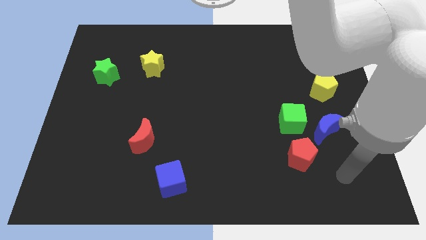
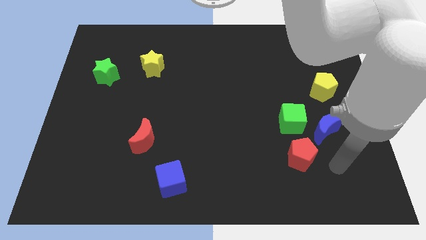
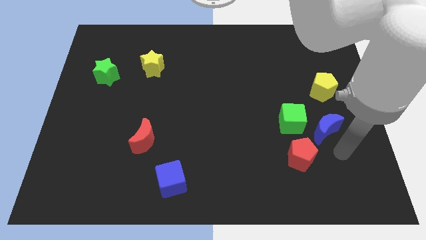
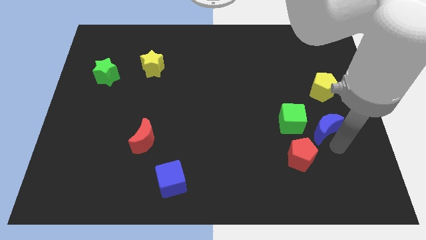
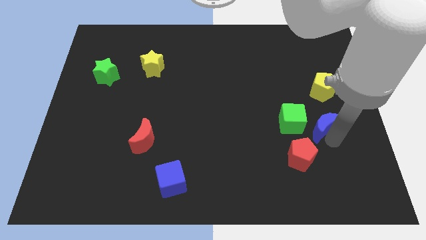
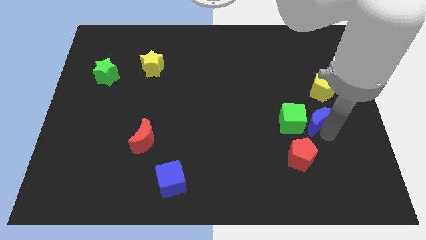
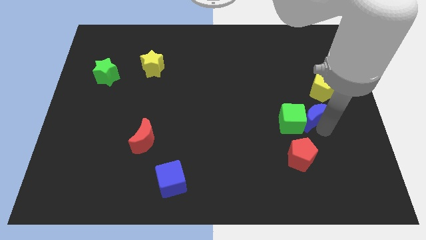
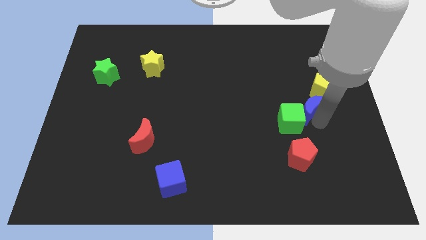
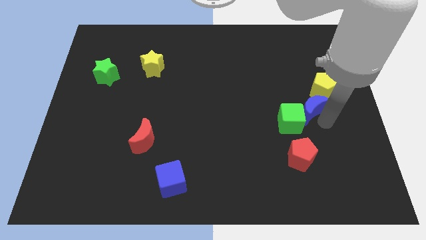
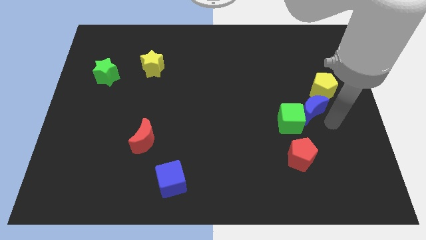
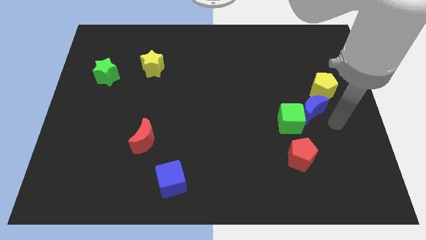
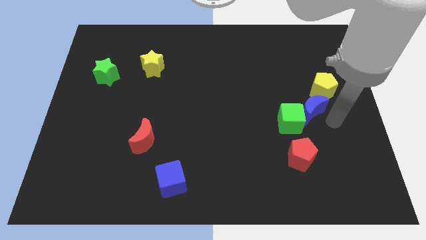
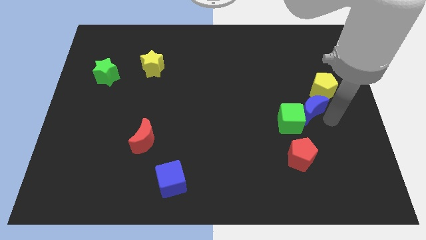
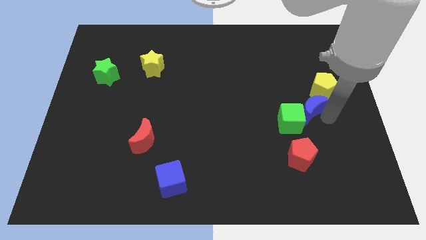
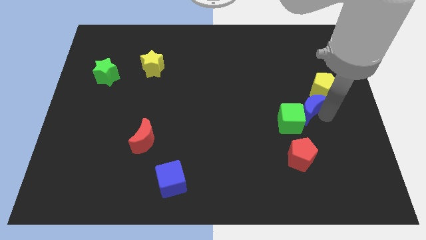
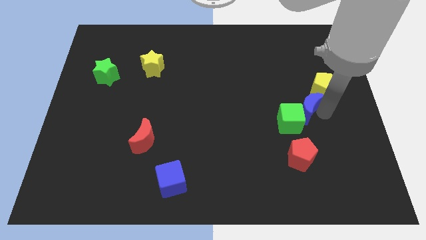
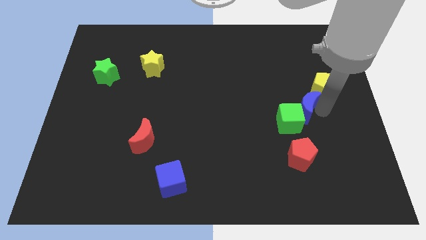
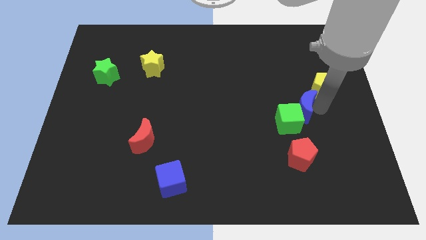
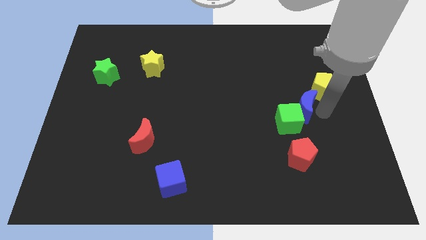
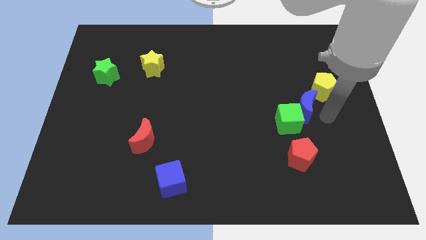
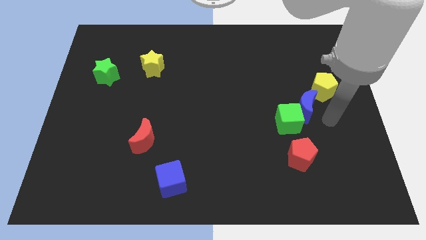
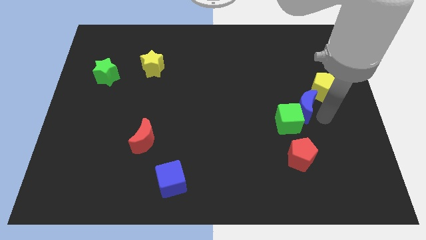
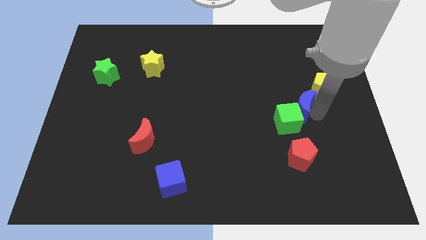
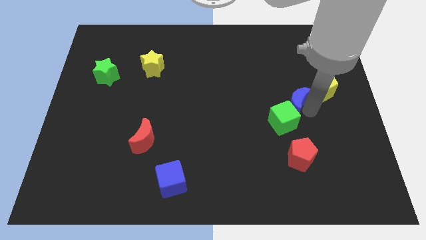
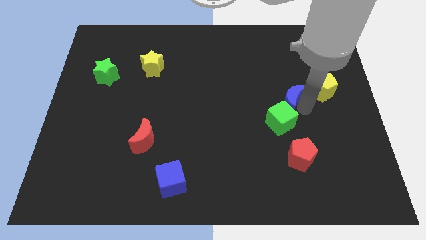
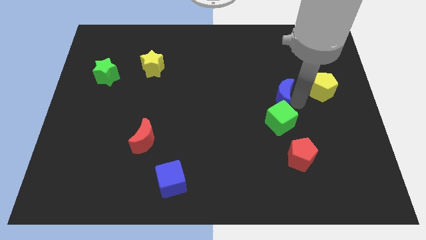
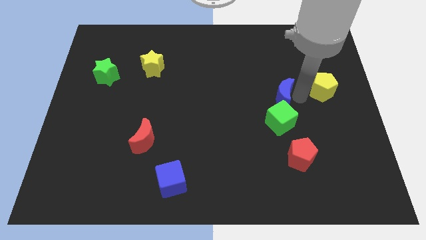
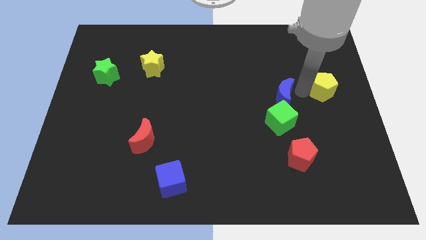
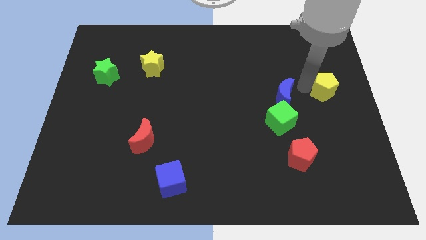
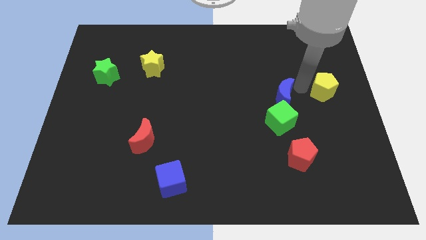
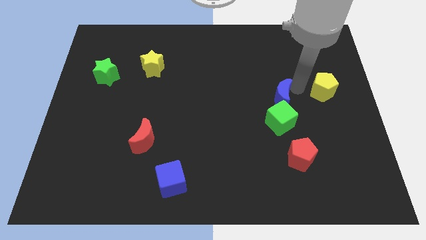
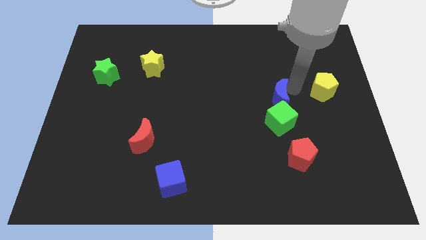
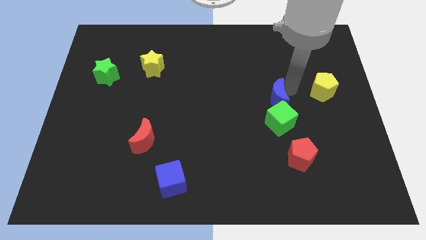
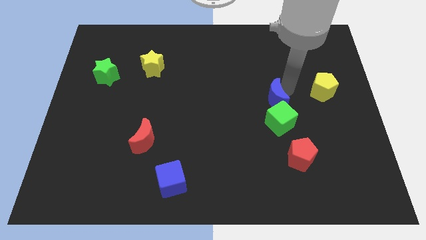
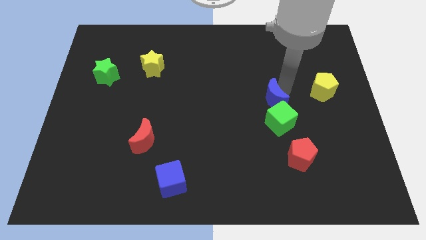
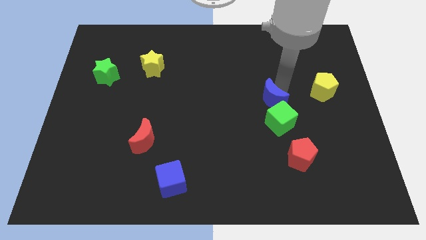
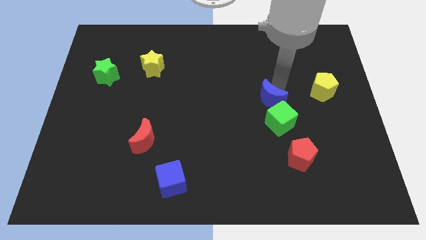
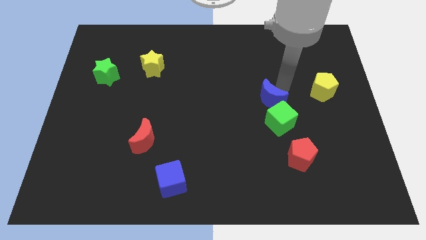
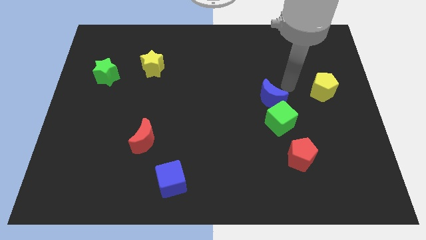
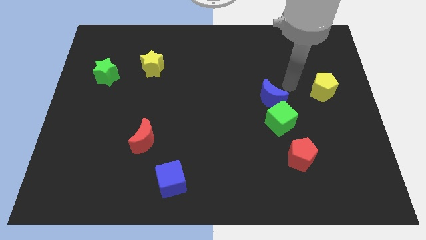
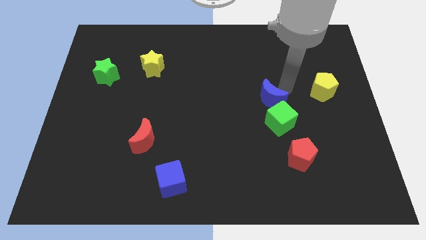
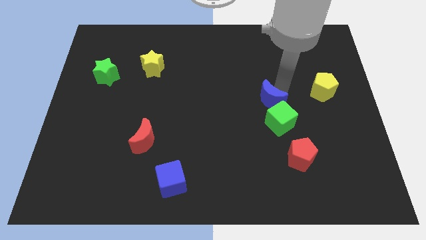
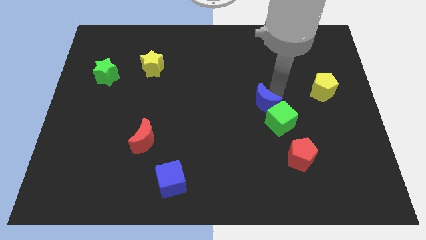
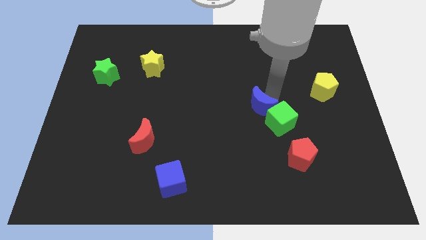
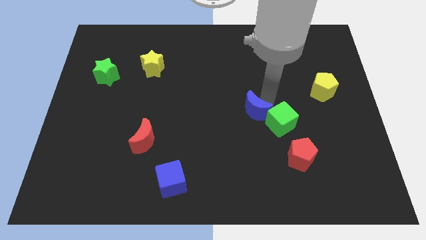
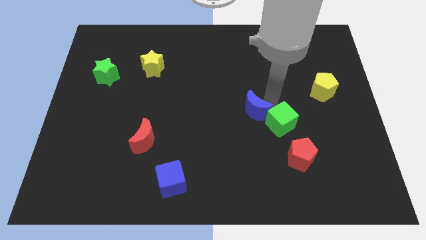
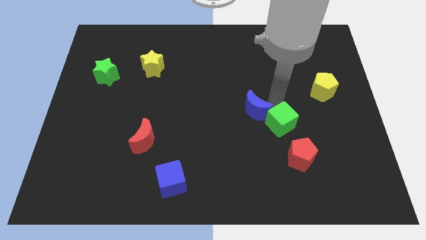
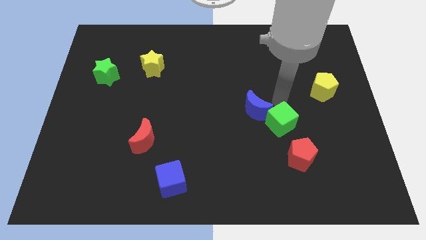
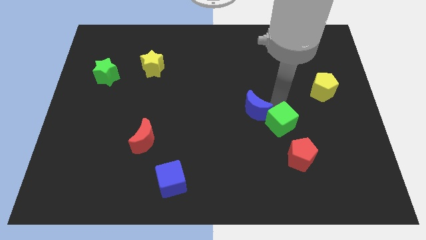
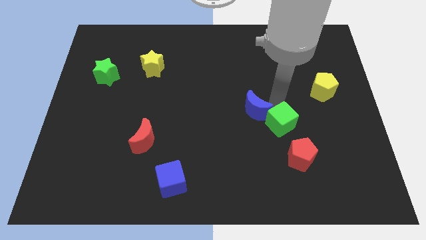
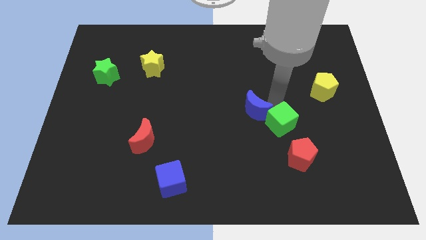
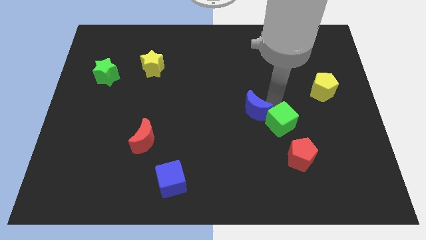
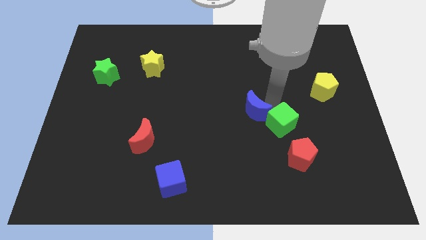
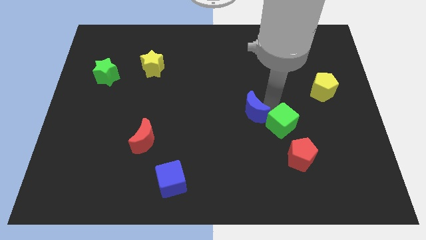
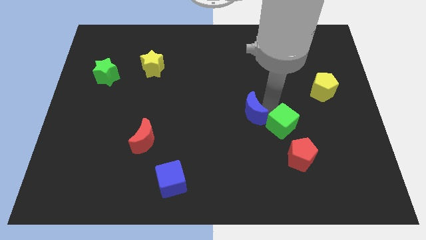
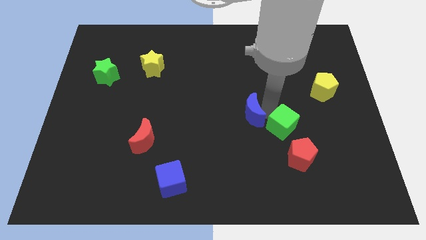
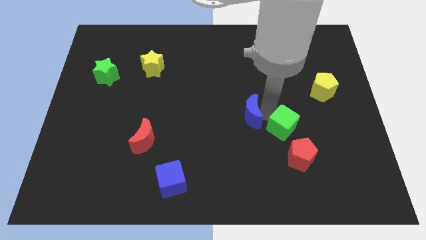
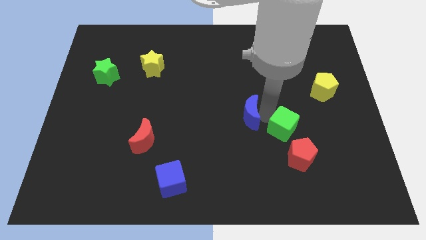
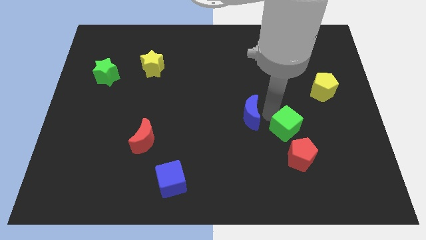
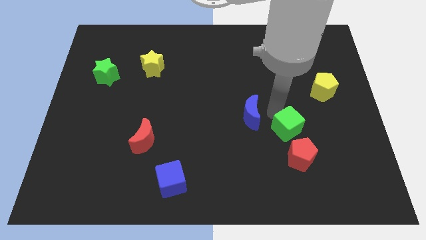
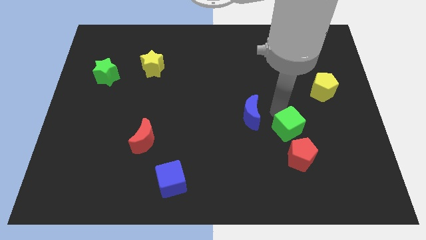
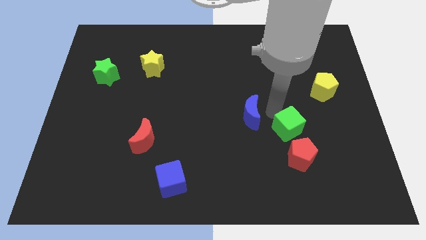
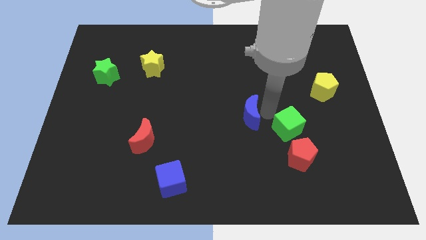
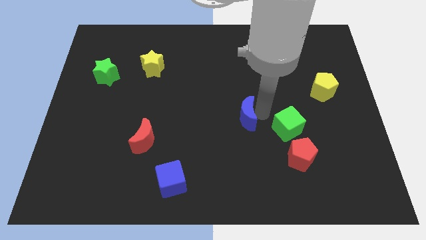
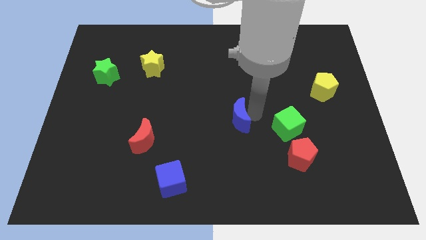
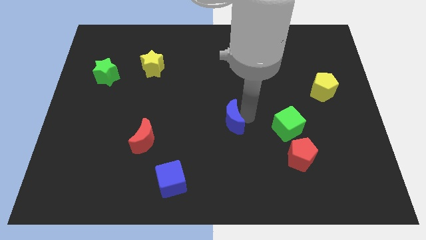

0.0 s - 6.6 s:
slide the blue moon left

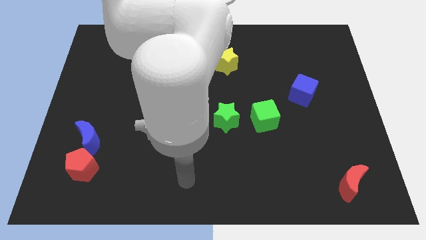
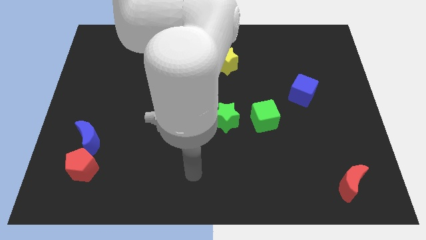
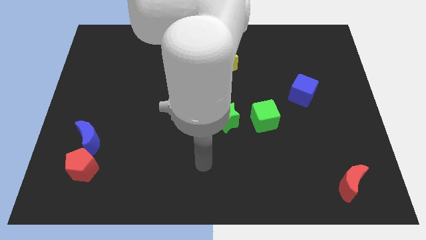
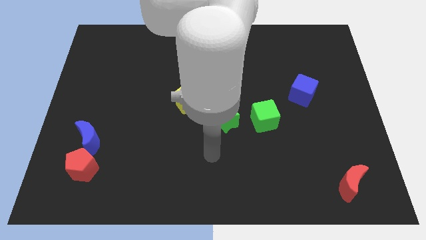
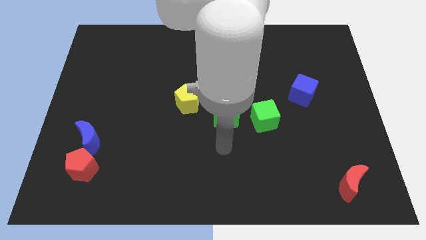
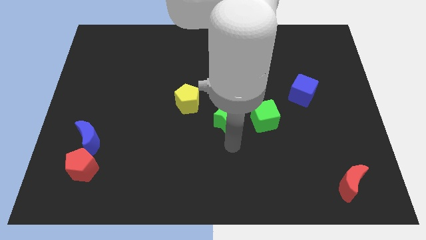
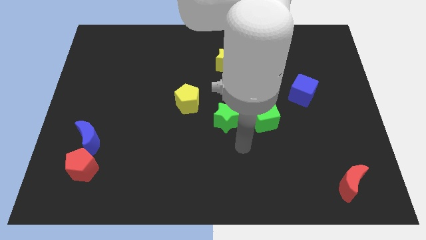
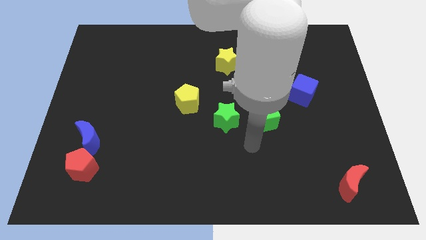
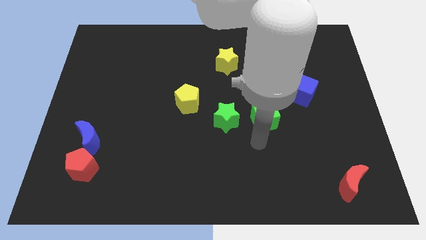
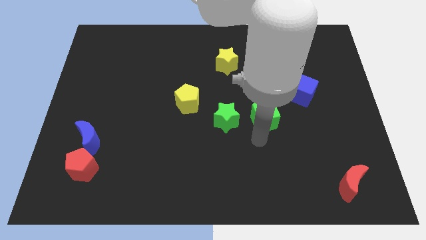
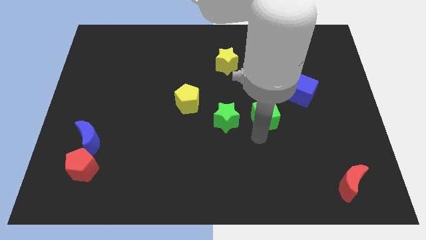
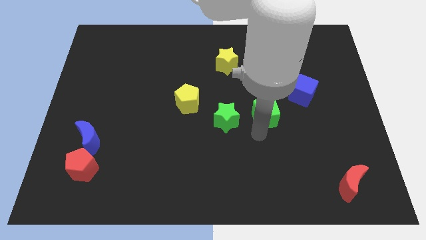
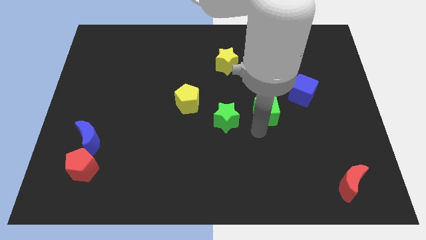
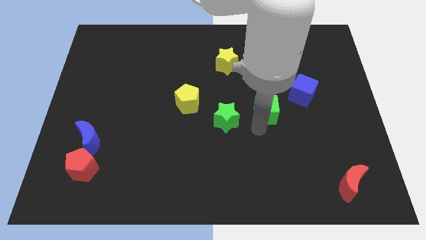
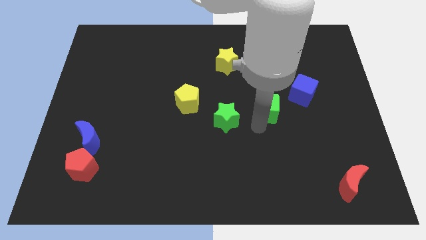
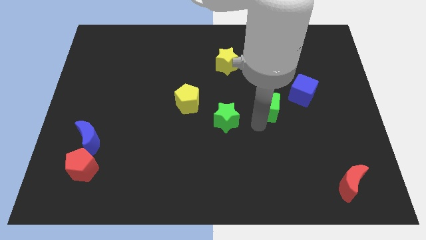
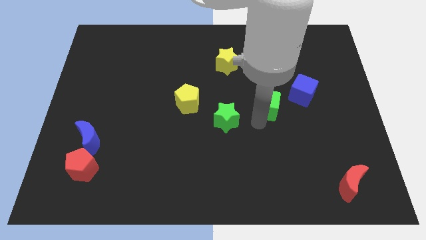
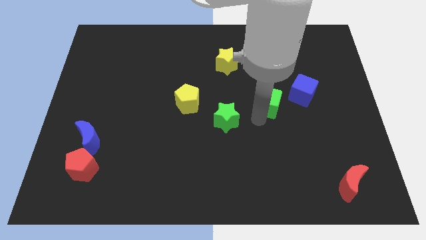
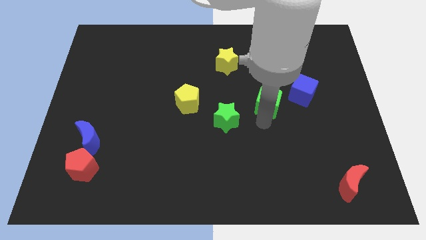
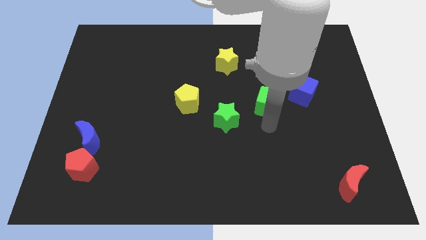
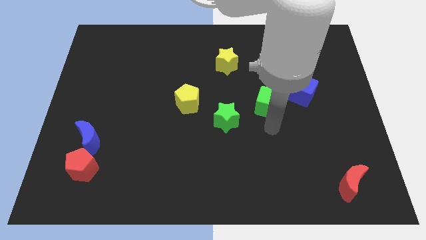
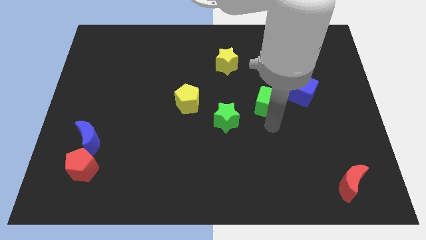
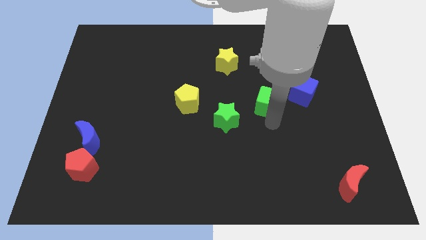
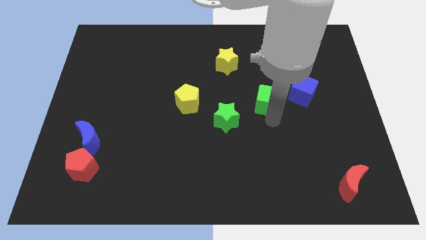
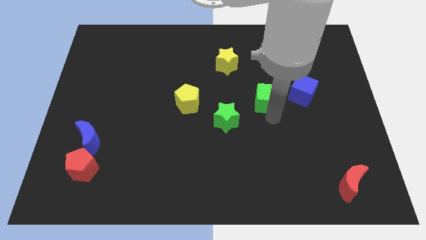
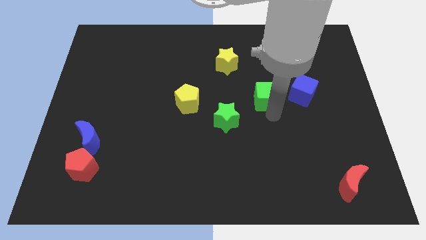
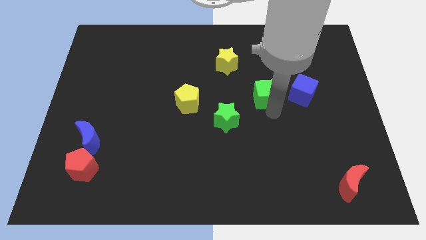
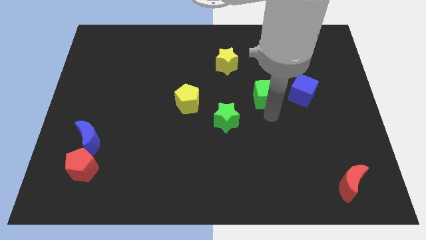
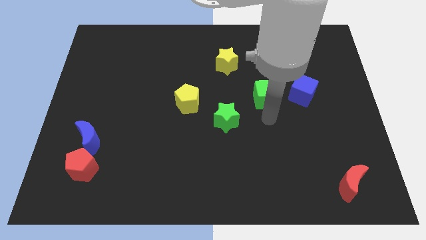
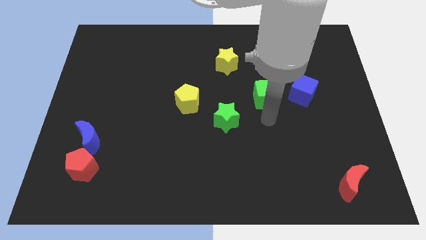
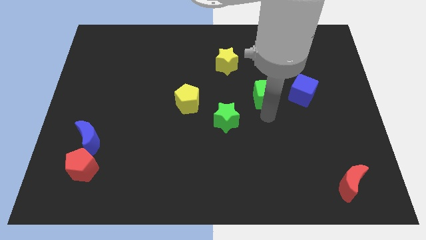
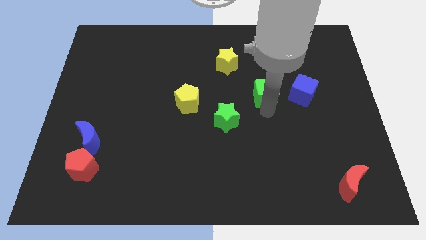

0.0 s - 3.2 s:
slide the green cube up slightly
